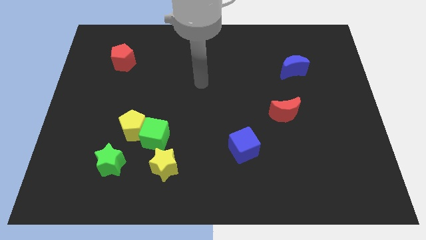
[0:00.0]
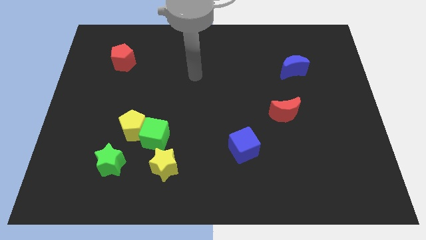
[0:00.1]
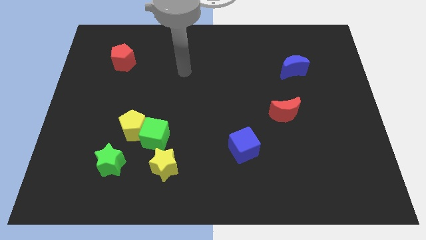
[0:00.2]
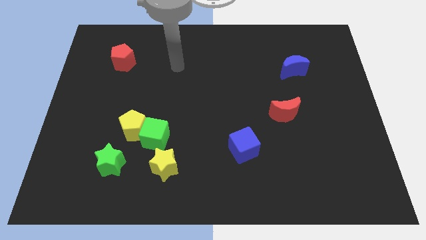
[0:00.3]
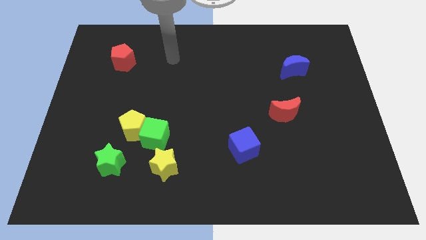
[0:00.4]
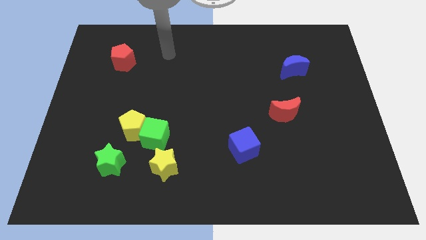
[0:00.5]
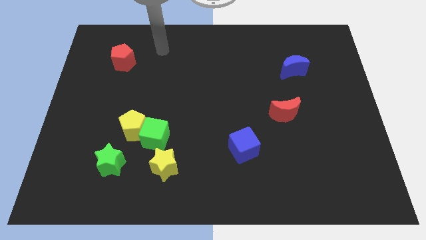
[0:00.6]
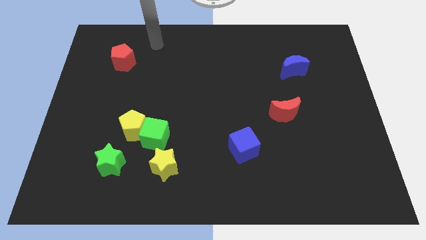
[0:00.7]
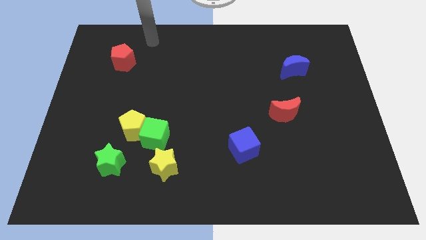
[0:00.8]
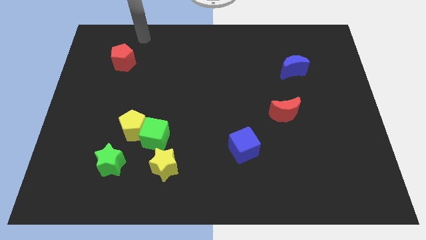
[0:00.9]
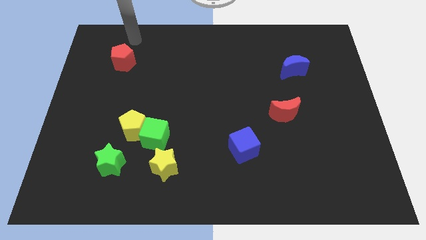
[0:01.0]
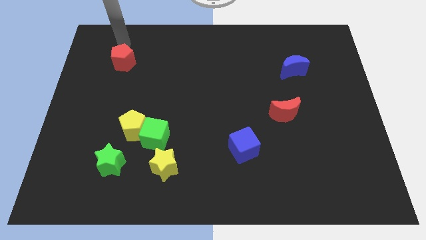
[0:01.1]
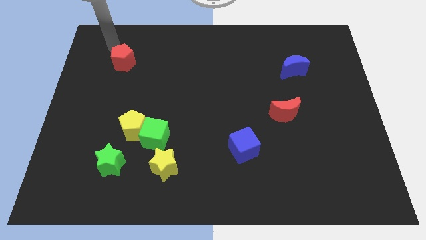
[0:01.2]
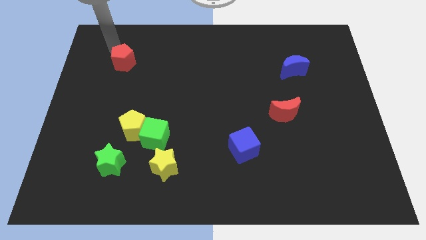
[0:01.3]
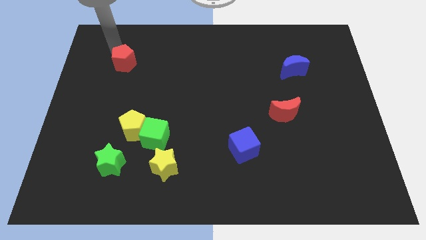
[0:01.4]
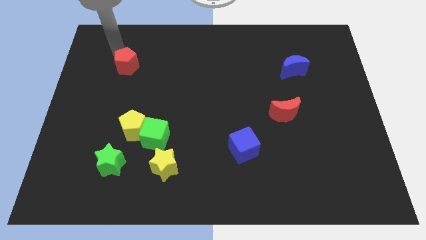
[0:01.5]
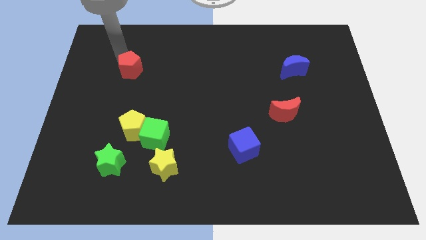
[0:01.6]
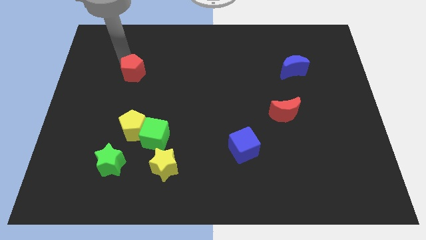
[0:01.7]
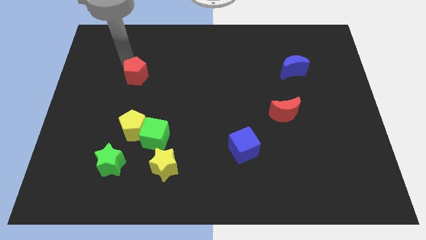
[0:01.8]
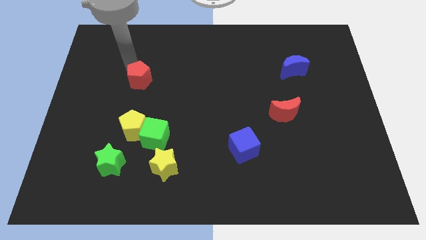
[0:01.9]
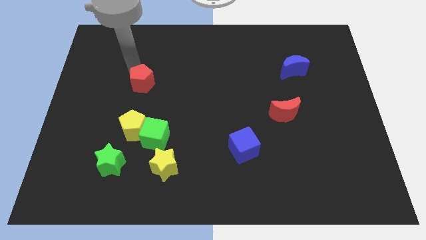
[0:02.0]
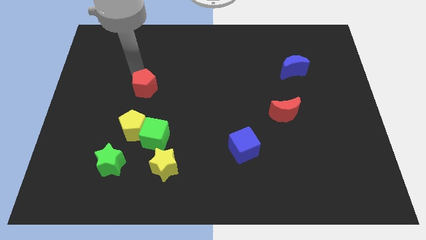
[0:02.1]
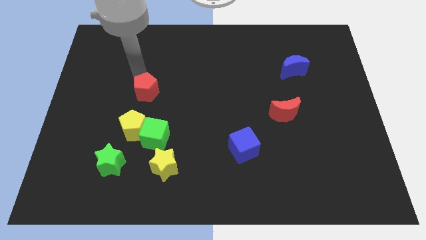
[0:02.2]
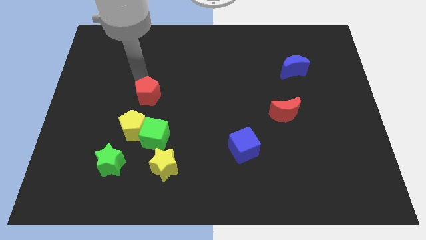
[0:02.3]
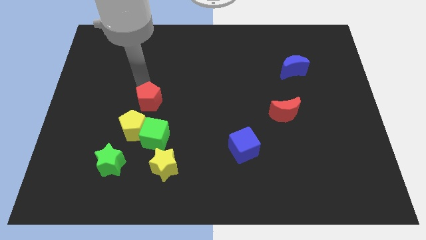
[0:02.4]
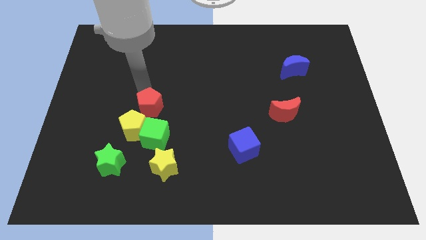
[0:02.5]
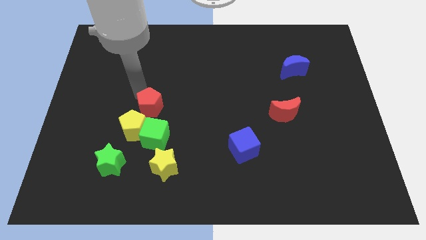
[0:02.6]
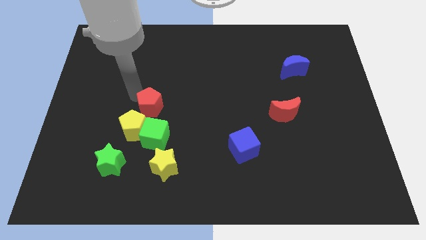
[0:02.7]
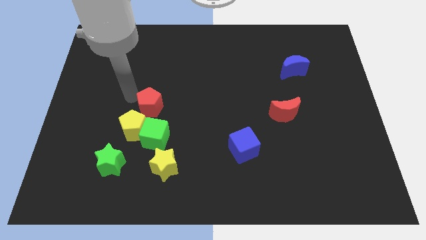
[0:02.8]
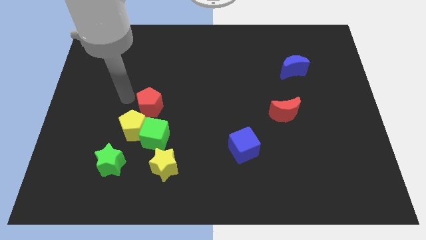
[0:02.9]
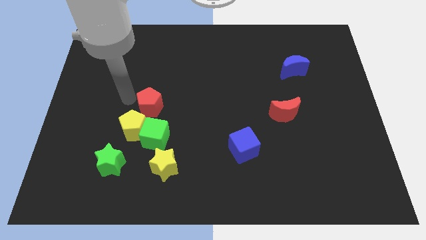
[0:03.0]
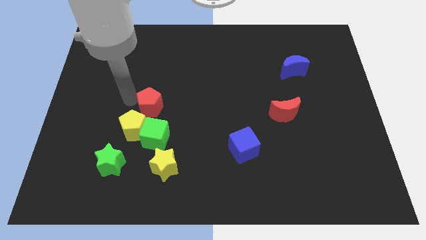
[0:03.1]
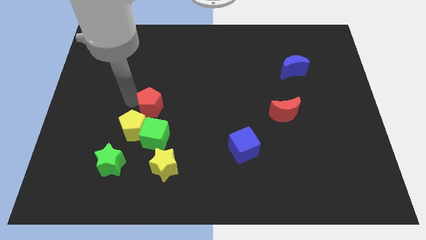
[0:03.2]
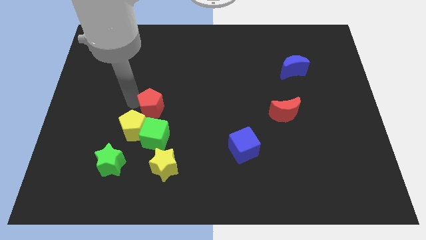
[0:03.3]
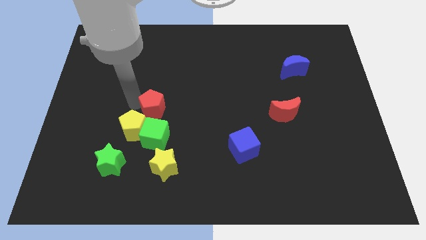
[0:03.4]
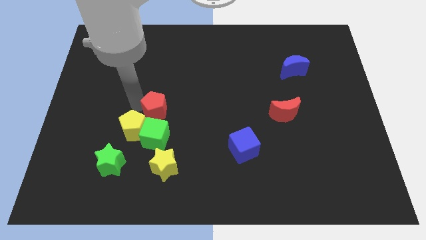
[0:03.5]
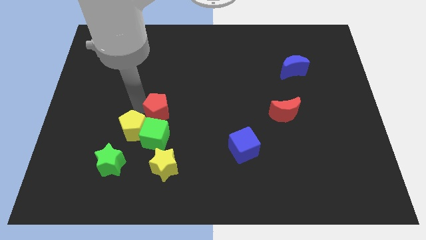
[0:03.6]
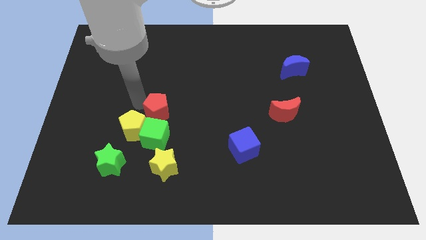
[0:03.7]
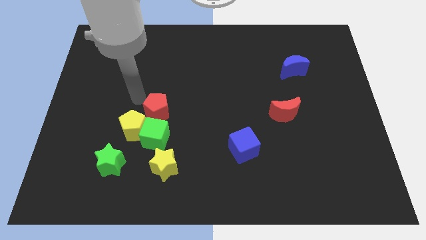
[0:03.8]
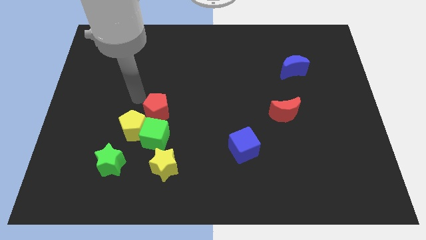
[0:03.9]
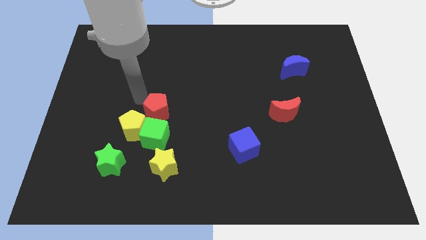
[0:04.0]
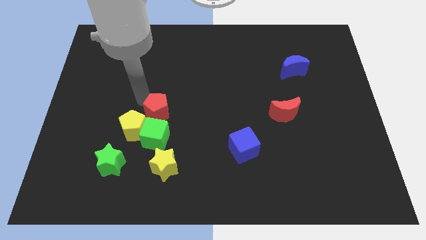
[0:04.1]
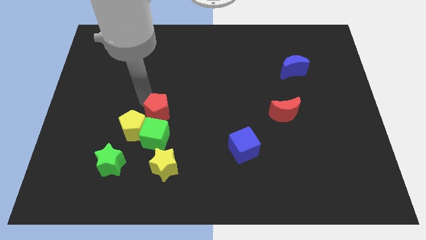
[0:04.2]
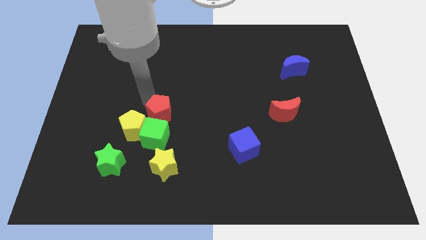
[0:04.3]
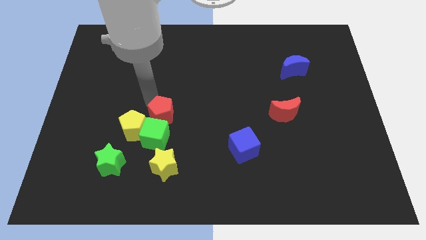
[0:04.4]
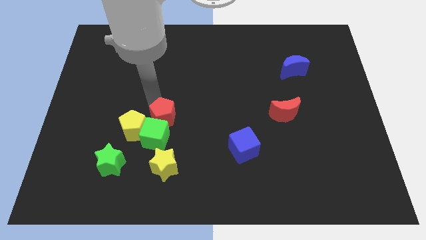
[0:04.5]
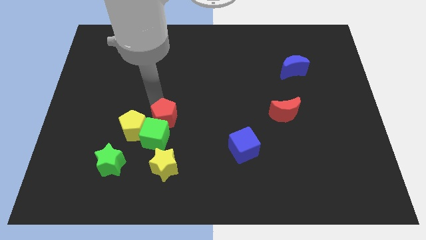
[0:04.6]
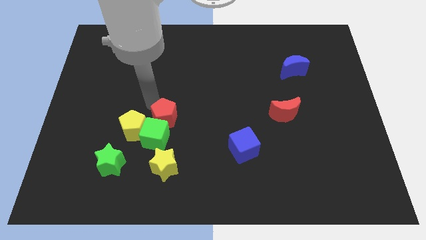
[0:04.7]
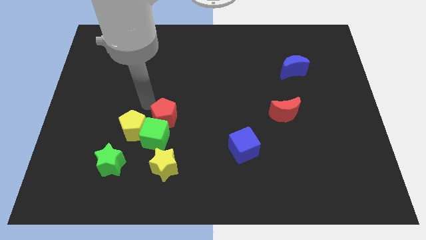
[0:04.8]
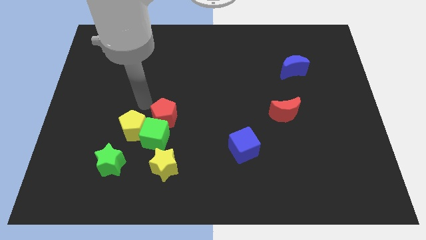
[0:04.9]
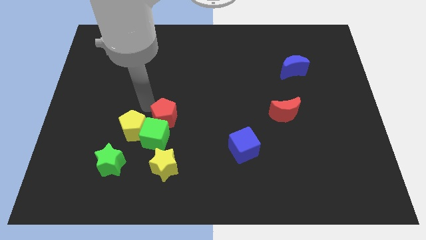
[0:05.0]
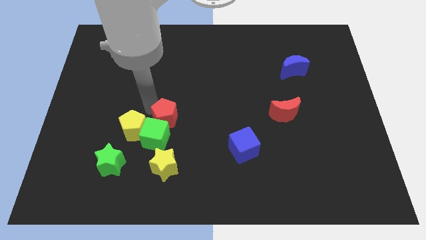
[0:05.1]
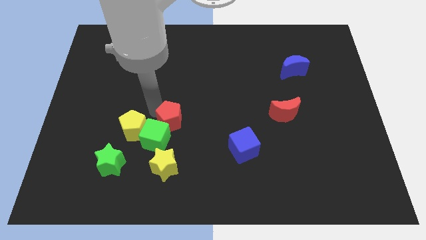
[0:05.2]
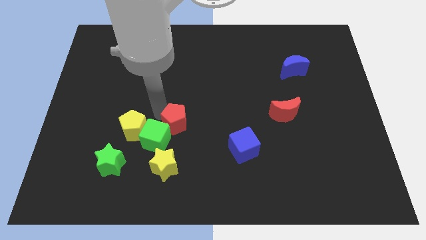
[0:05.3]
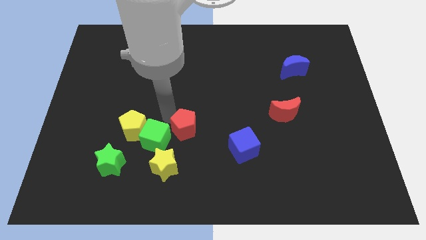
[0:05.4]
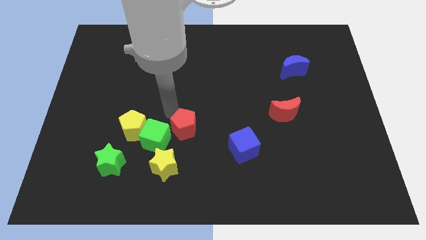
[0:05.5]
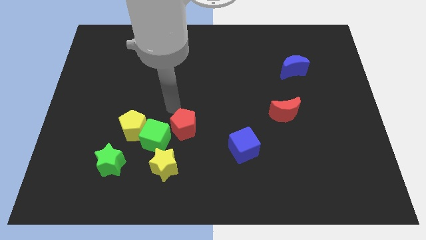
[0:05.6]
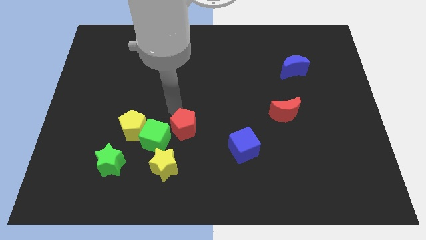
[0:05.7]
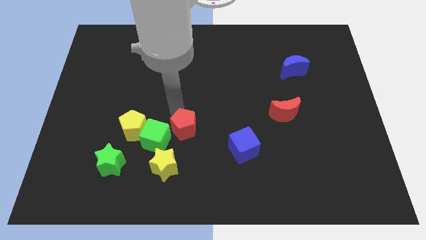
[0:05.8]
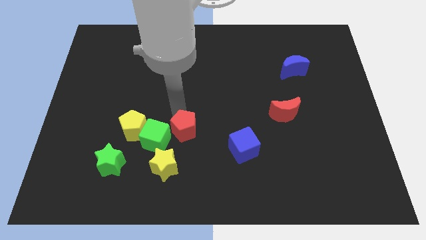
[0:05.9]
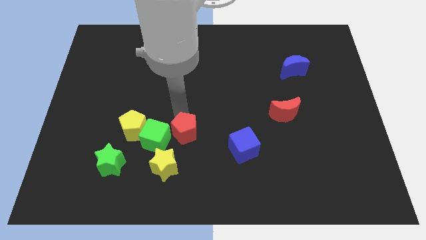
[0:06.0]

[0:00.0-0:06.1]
move the red pentagon just left of the blue cube
